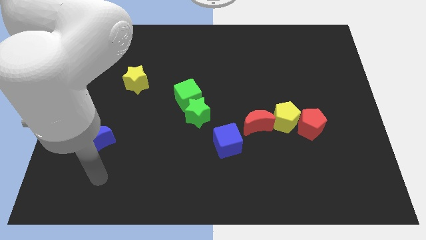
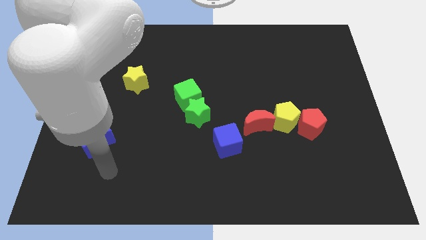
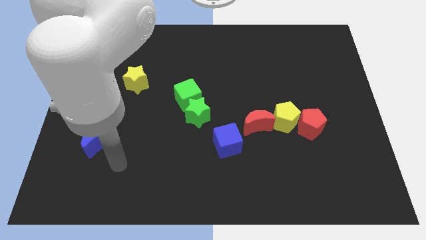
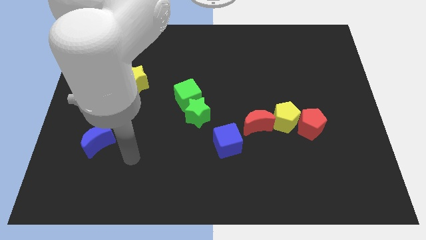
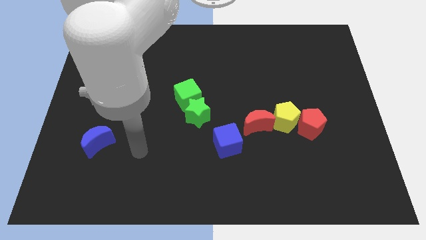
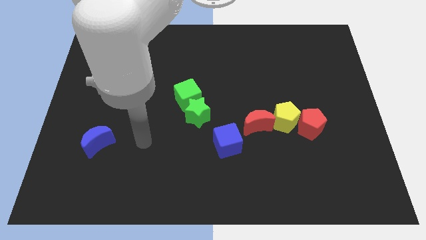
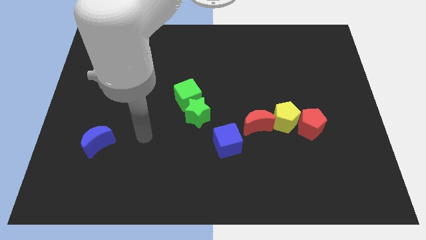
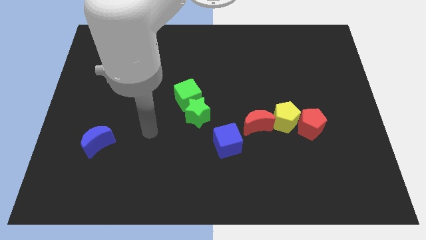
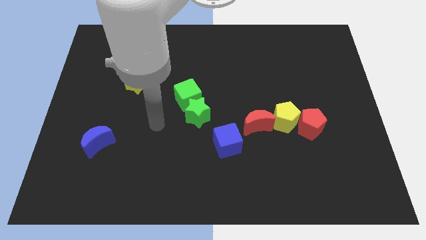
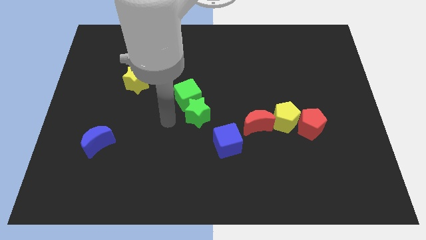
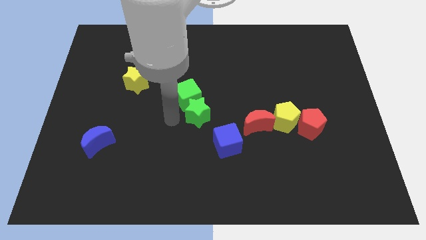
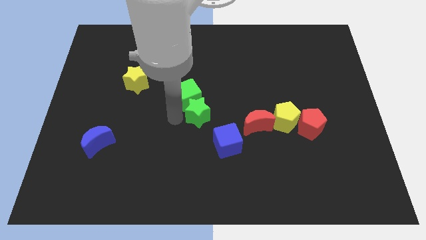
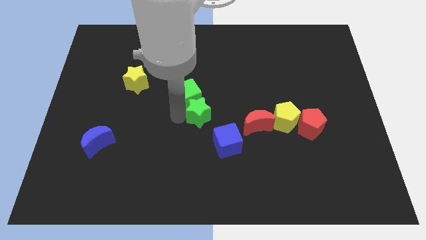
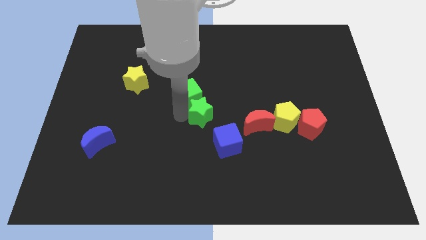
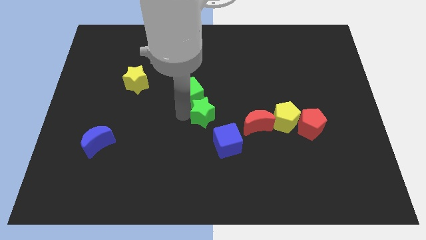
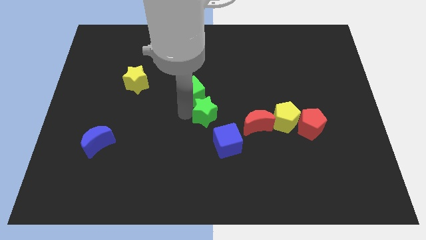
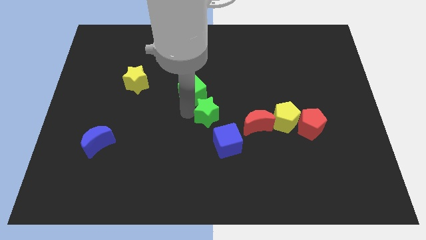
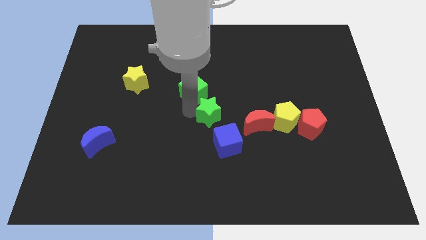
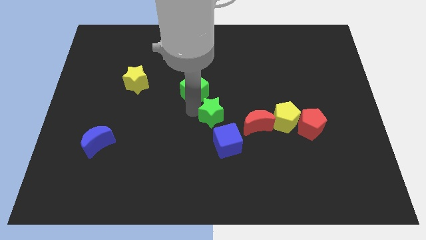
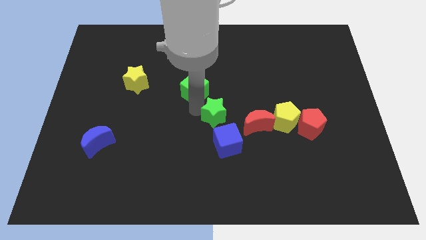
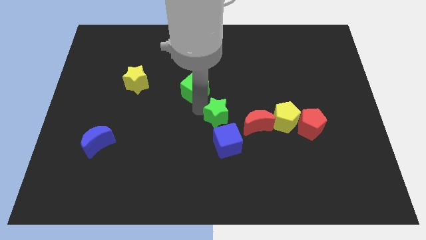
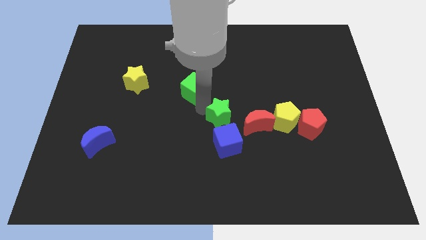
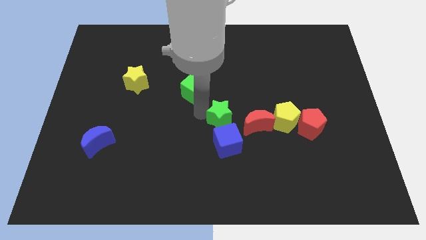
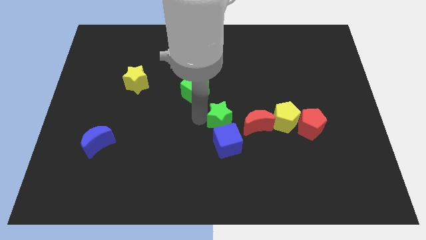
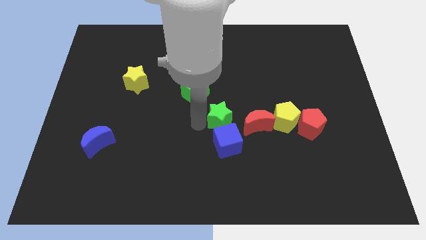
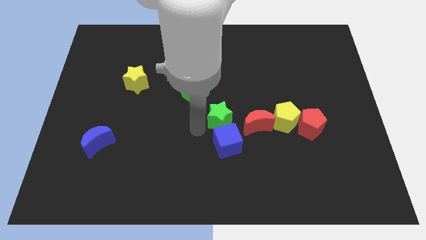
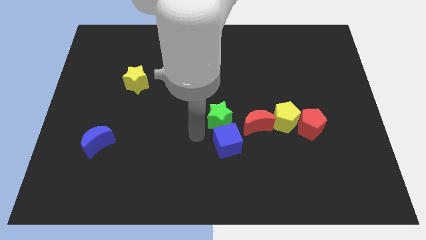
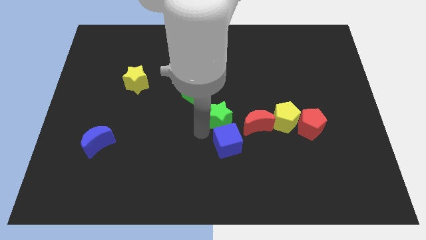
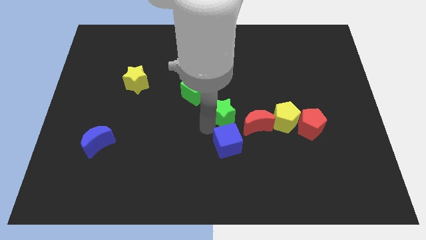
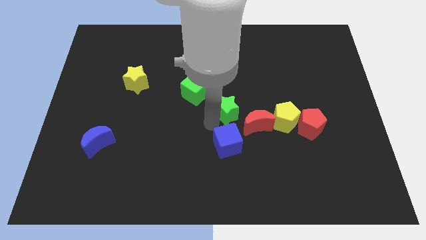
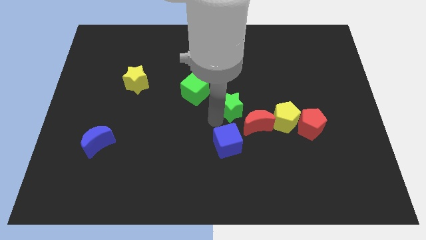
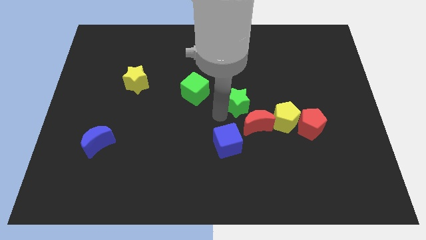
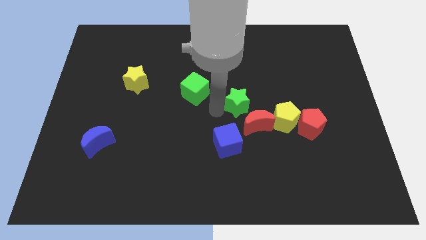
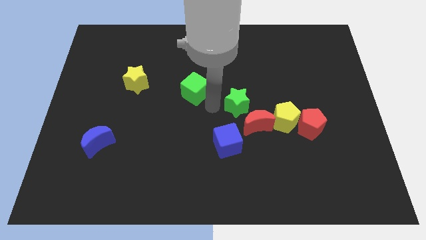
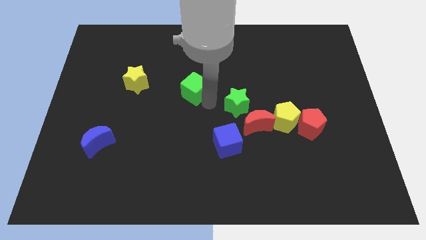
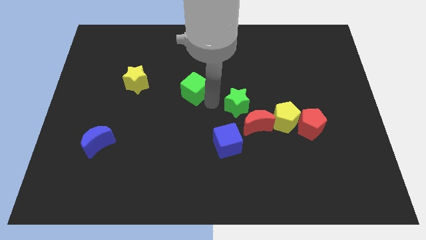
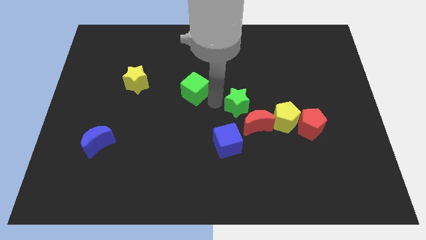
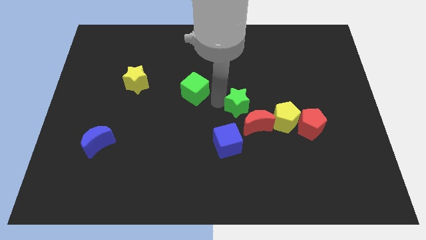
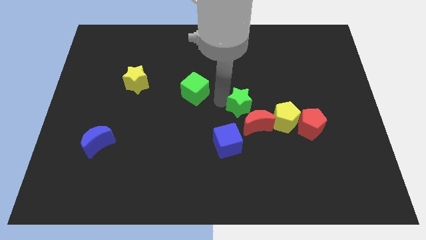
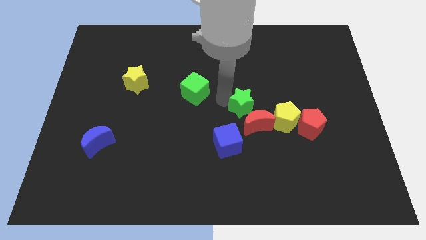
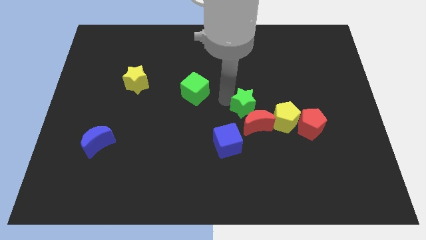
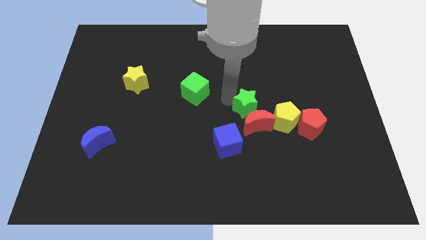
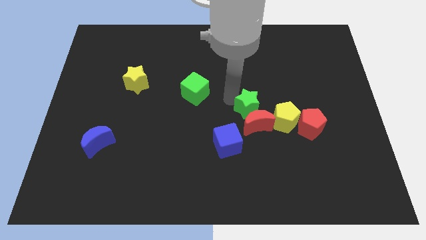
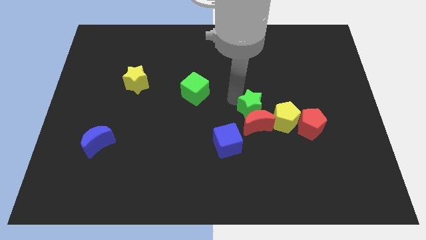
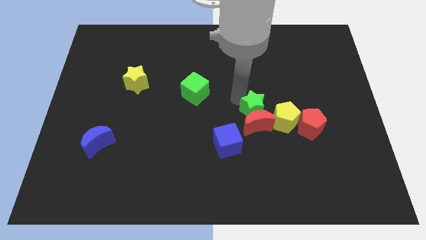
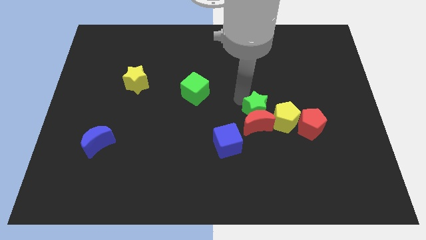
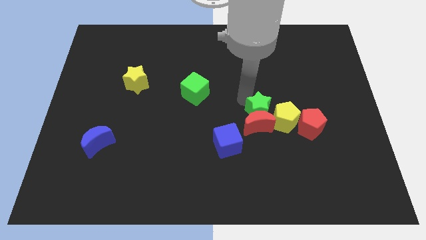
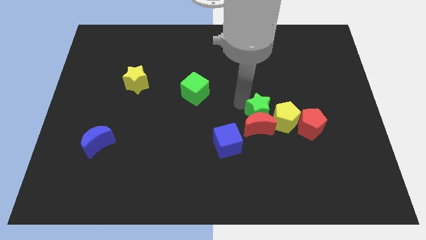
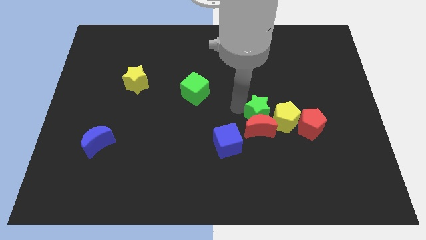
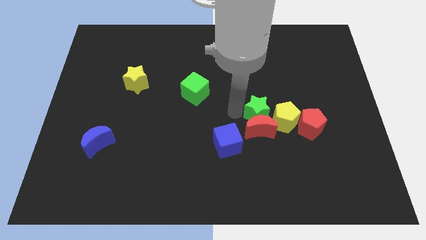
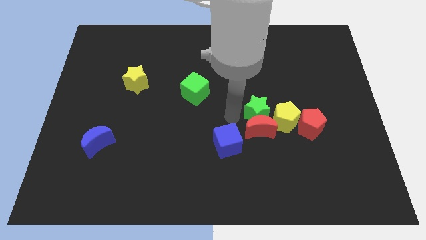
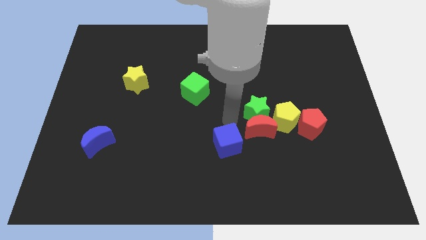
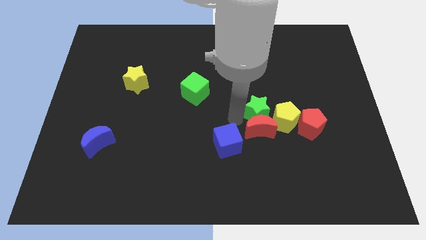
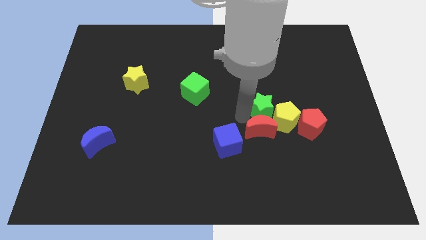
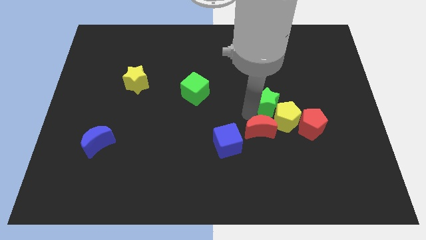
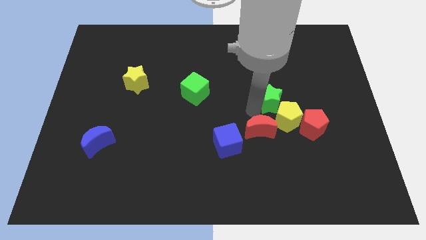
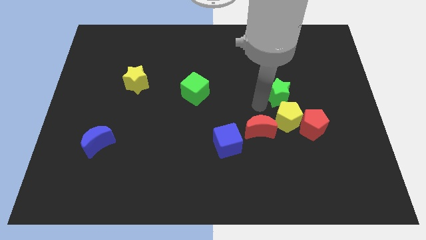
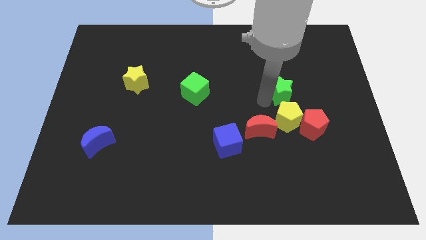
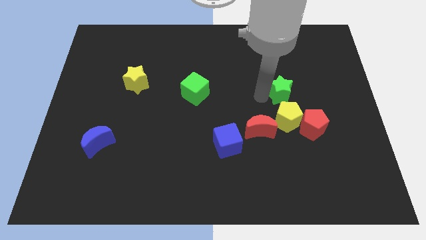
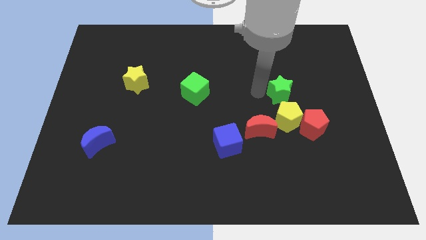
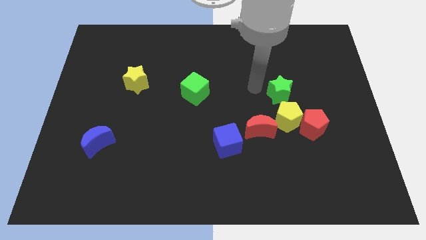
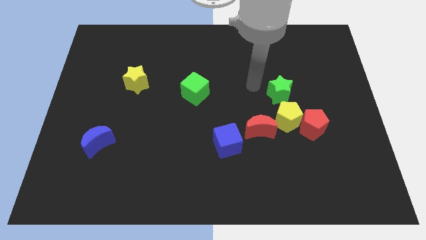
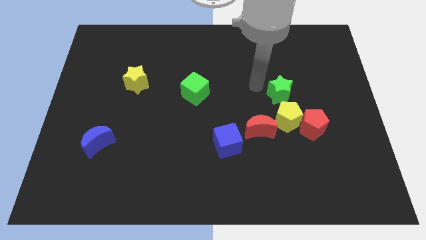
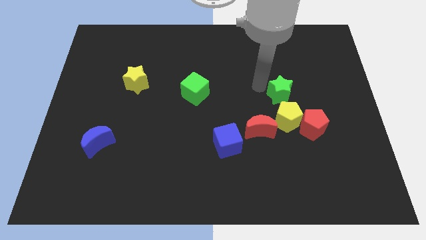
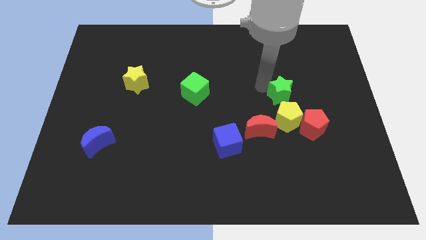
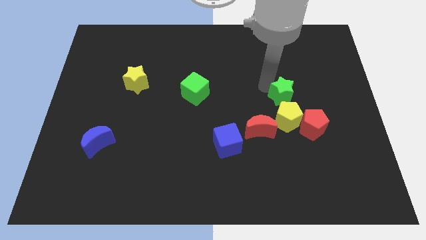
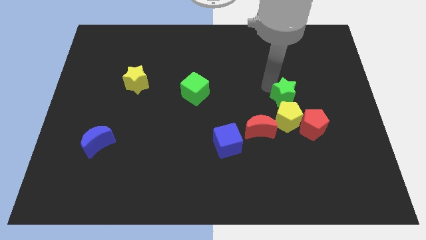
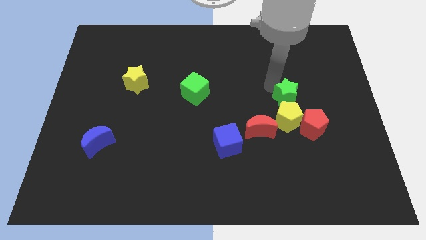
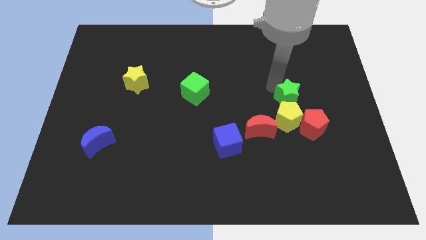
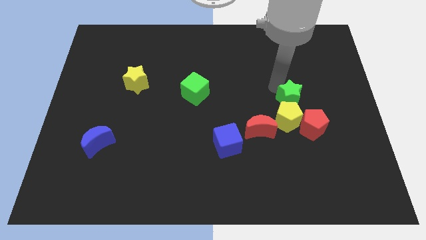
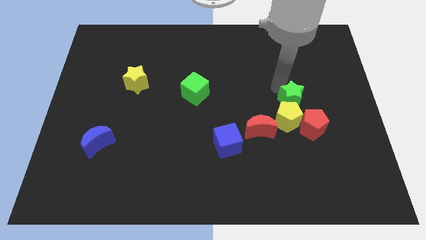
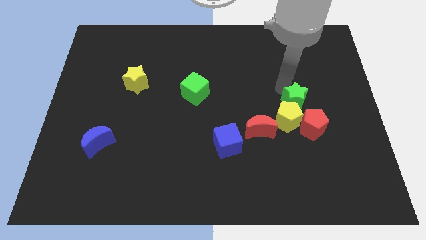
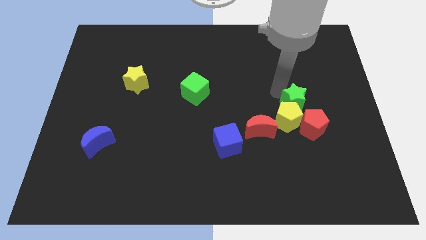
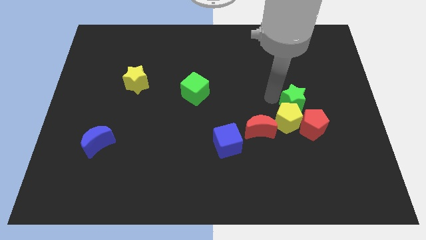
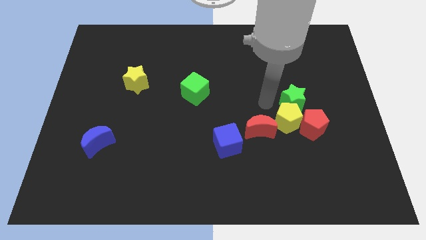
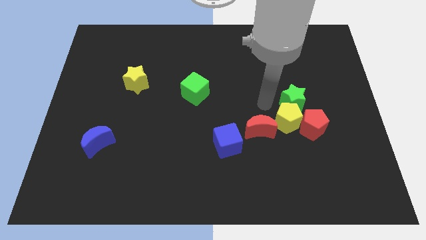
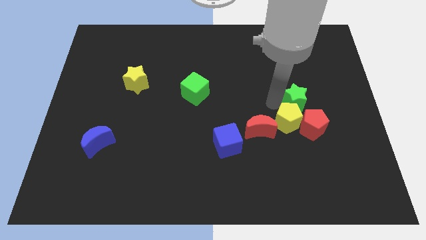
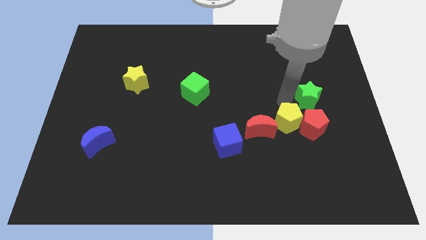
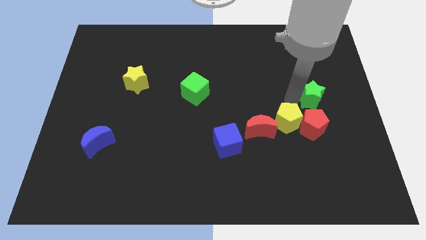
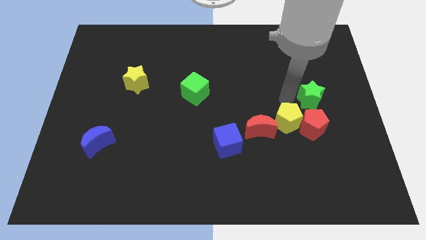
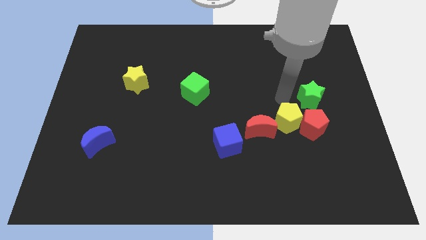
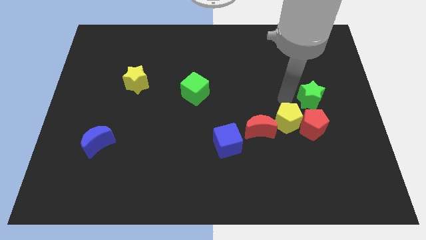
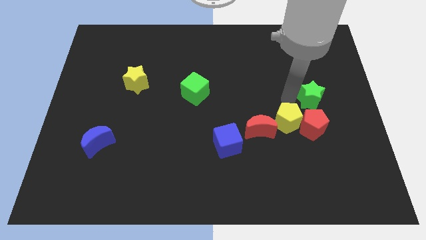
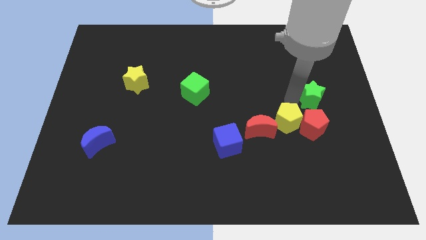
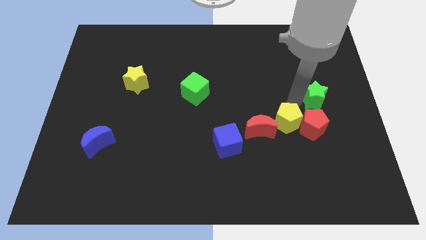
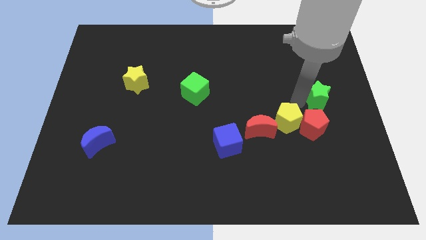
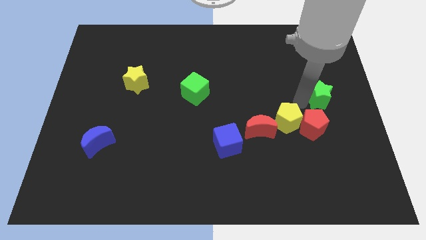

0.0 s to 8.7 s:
put the green star to the right side
